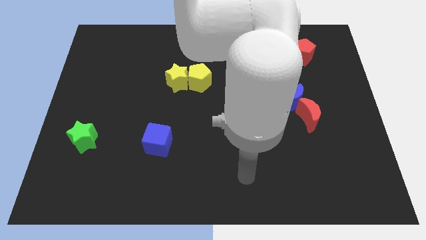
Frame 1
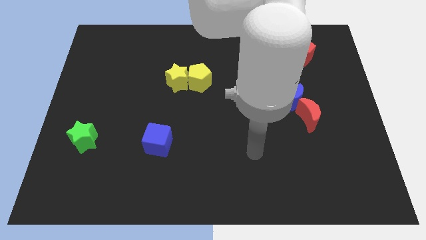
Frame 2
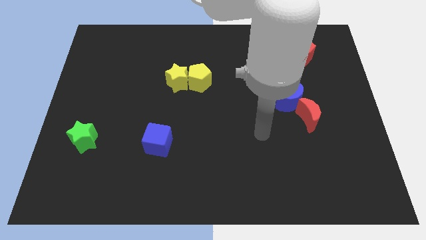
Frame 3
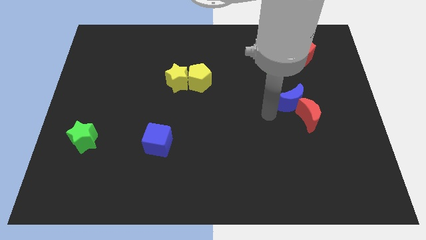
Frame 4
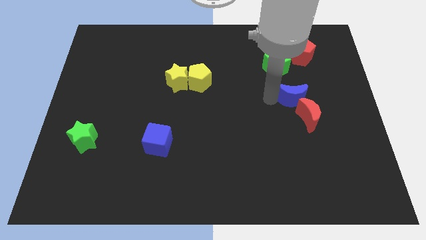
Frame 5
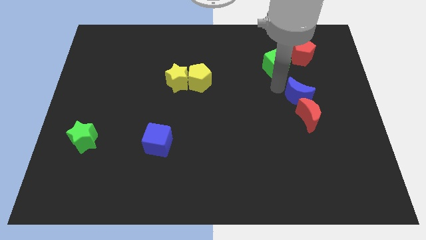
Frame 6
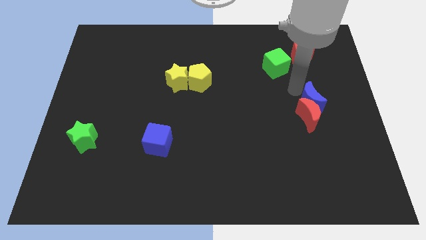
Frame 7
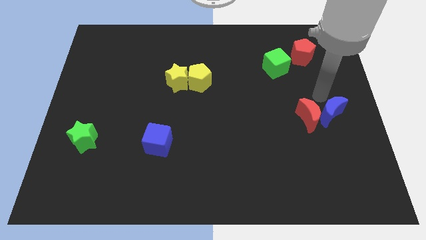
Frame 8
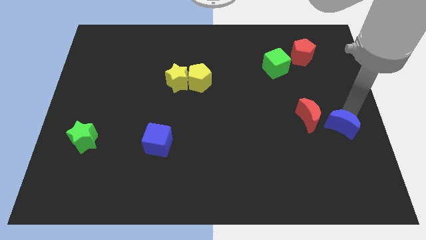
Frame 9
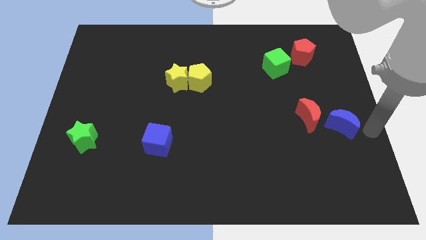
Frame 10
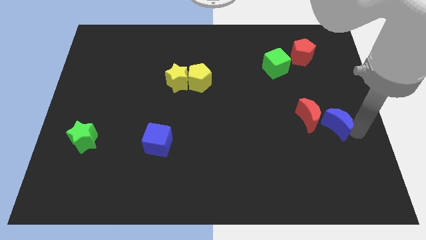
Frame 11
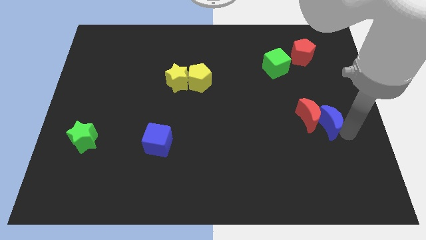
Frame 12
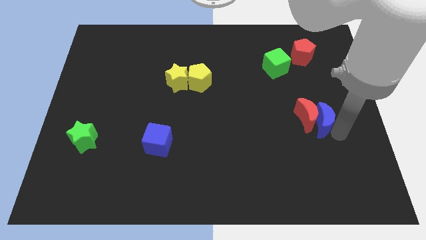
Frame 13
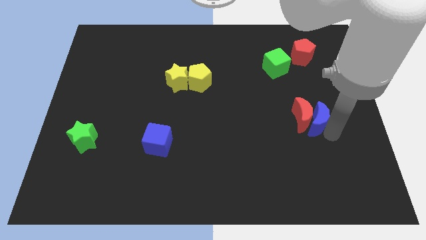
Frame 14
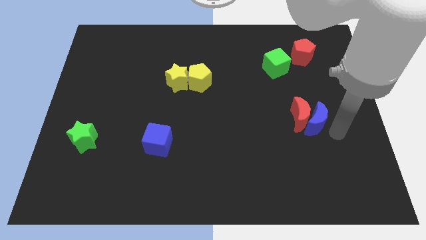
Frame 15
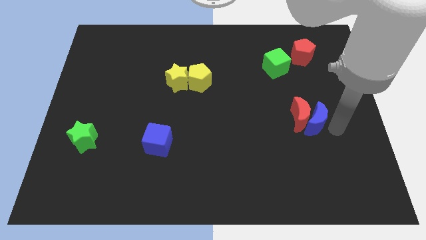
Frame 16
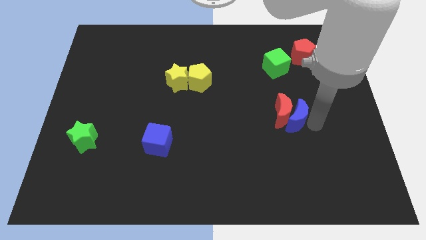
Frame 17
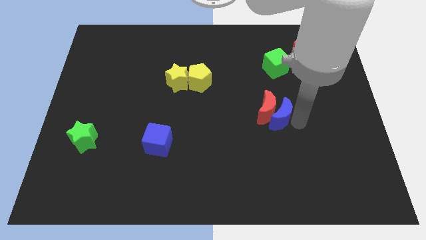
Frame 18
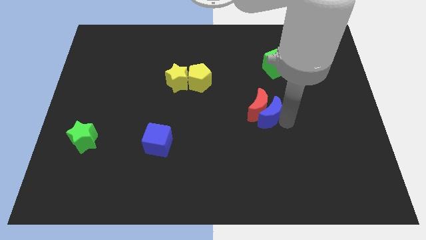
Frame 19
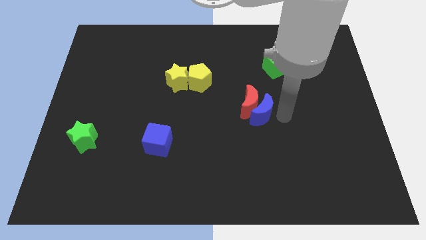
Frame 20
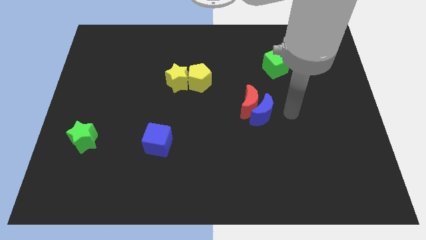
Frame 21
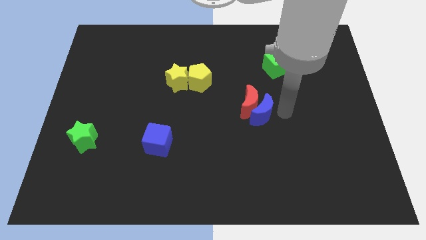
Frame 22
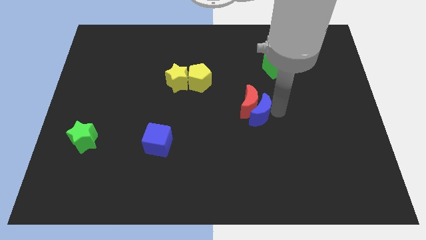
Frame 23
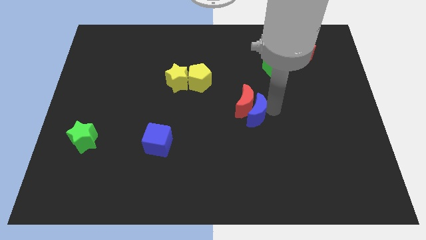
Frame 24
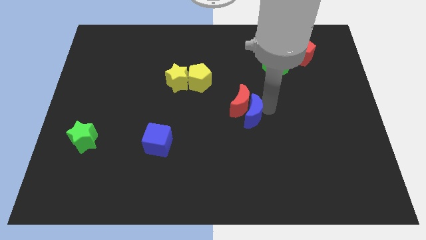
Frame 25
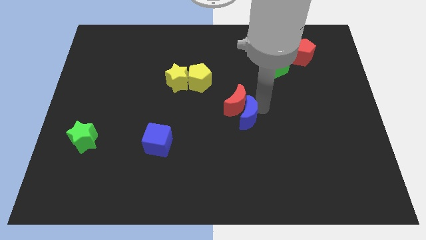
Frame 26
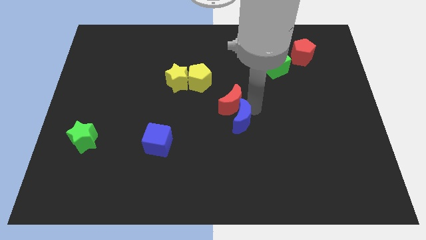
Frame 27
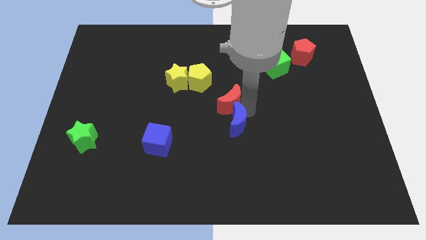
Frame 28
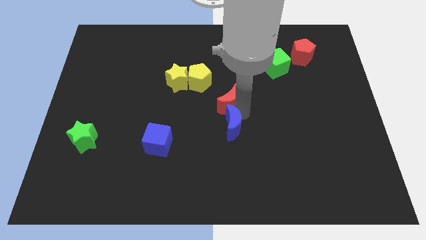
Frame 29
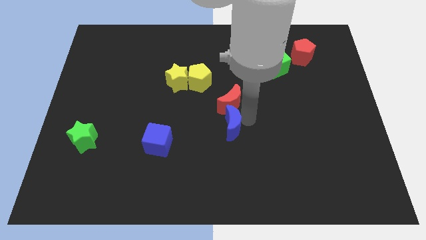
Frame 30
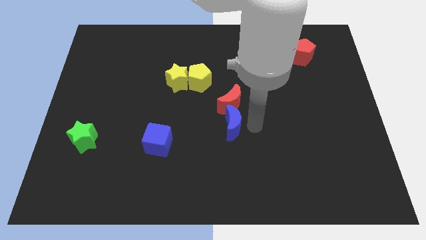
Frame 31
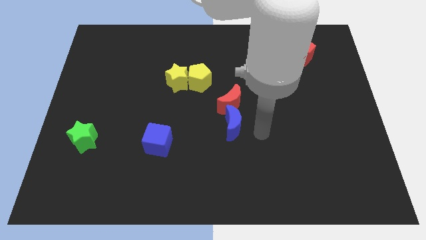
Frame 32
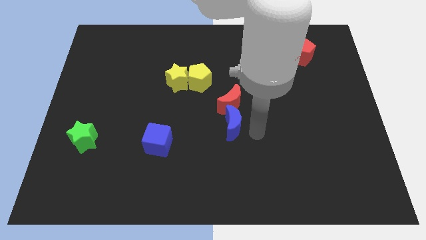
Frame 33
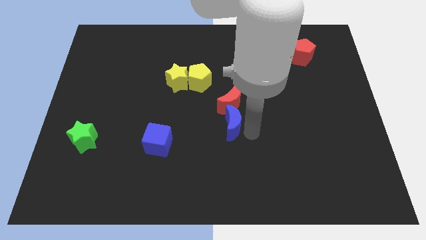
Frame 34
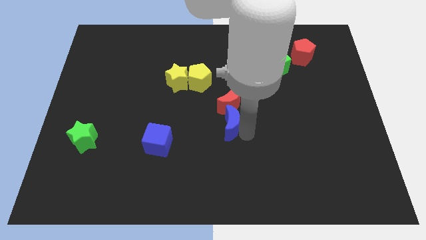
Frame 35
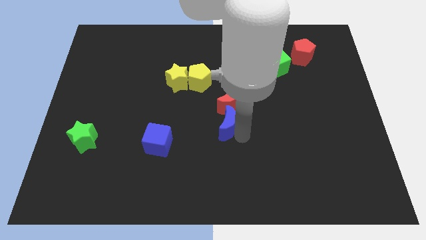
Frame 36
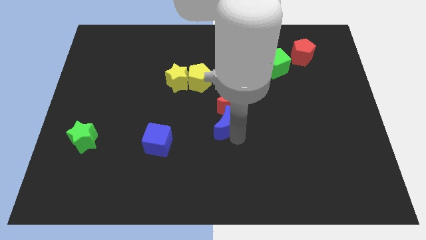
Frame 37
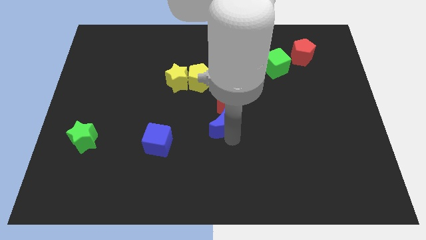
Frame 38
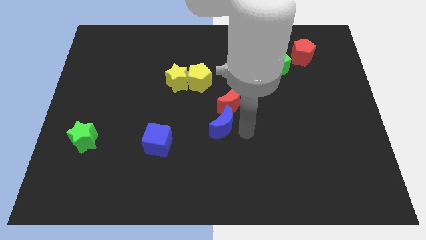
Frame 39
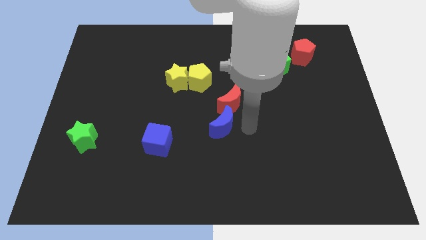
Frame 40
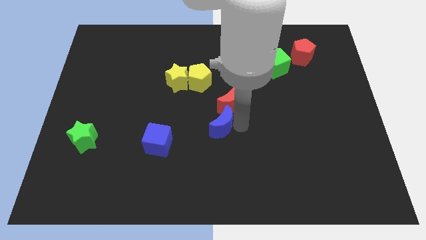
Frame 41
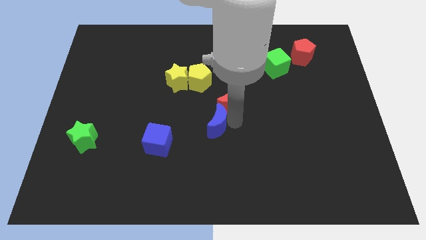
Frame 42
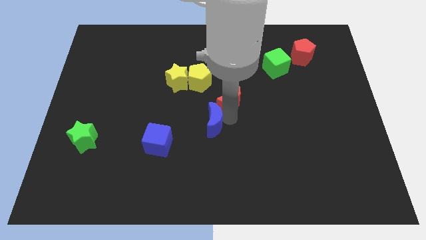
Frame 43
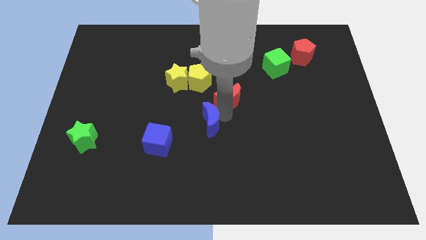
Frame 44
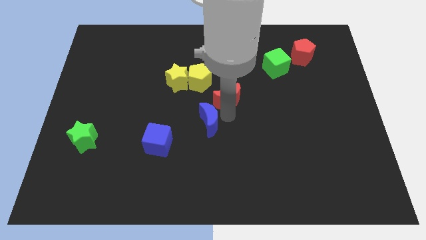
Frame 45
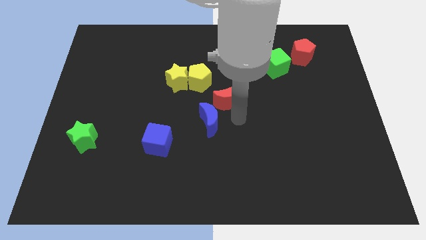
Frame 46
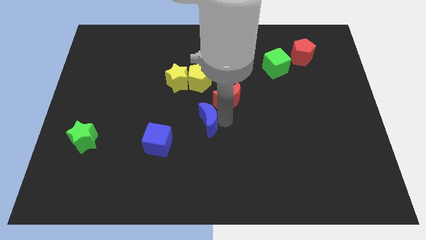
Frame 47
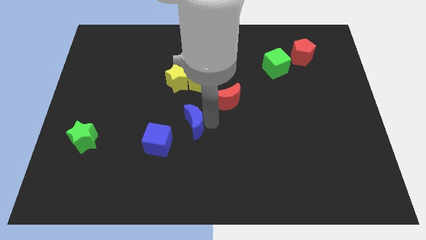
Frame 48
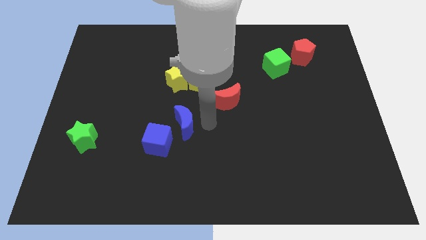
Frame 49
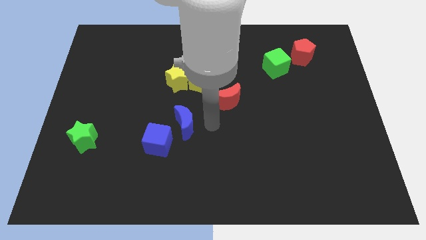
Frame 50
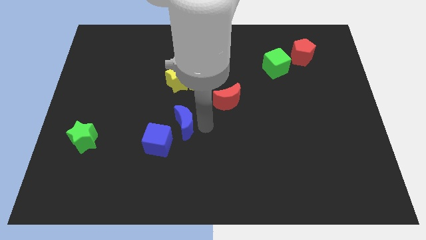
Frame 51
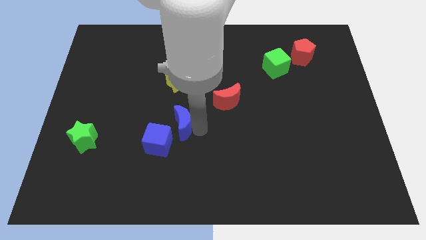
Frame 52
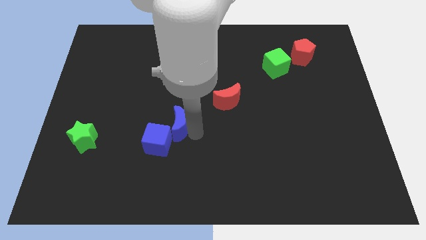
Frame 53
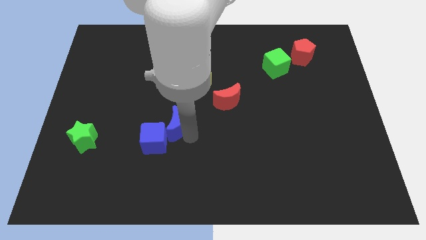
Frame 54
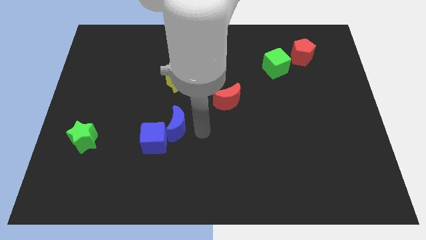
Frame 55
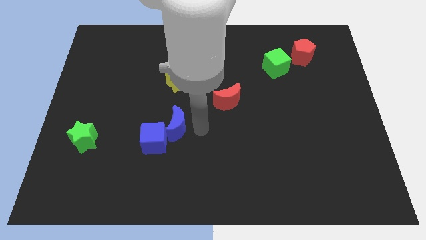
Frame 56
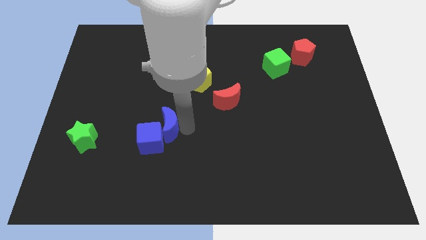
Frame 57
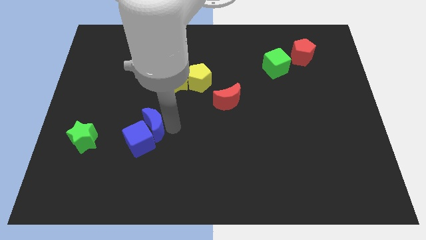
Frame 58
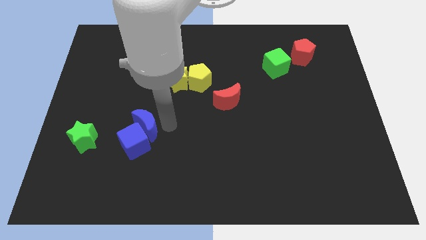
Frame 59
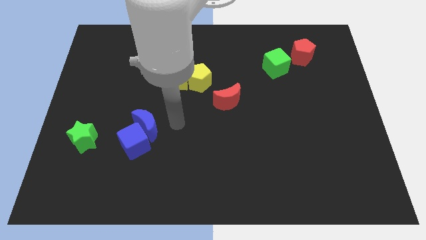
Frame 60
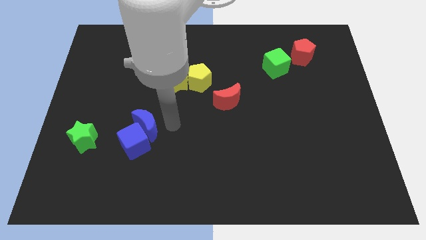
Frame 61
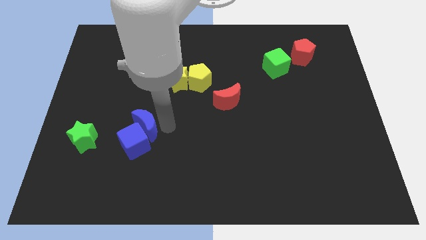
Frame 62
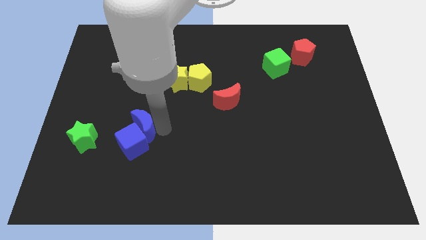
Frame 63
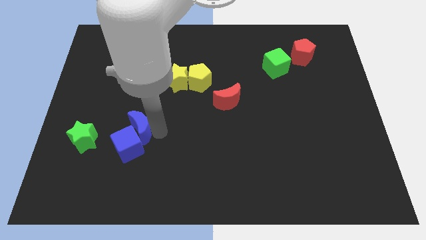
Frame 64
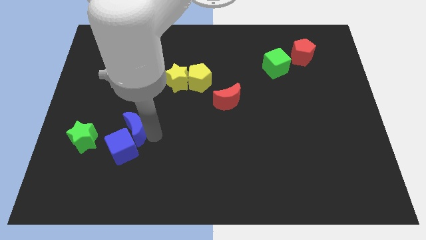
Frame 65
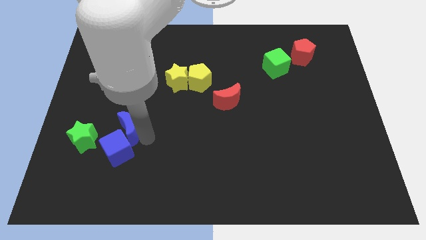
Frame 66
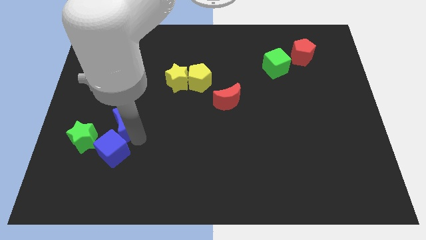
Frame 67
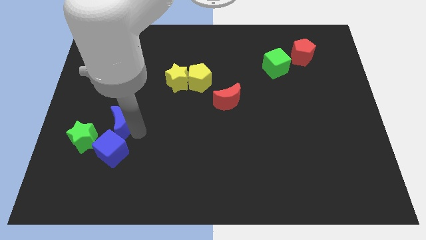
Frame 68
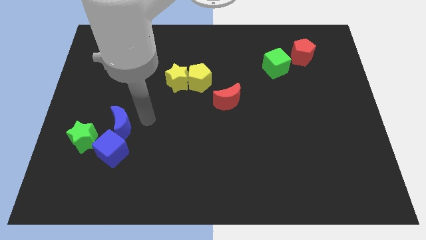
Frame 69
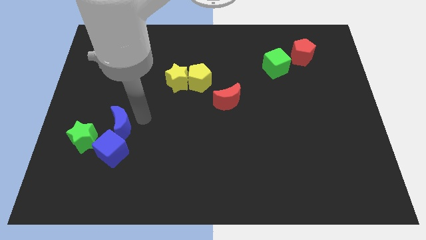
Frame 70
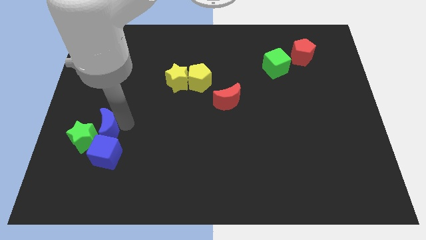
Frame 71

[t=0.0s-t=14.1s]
move the blue moon towards the green star
